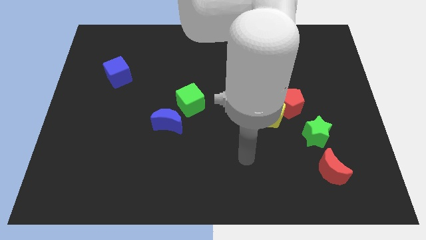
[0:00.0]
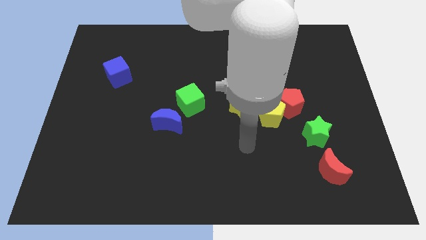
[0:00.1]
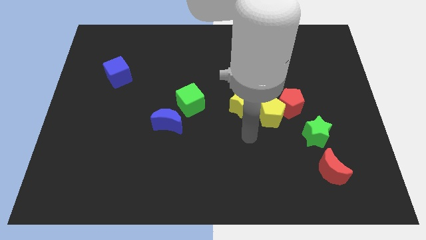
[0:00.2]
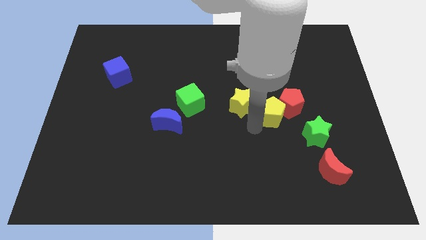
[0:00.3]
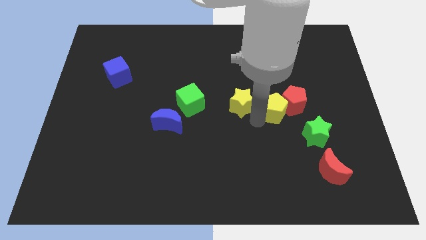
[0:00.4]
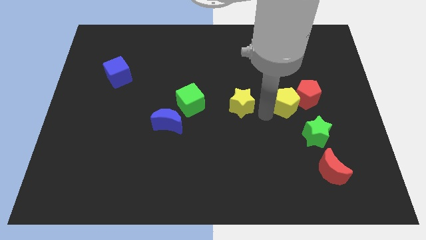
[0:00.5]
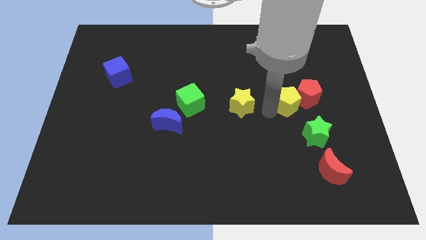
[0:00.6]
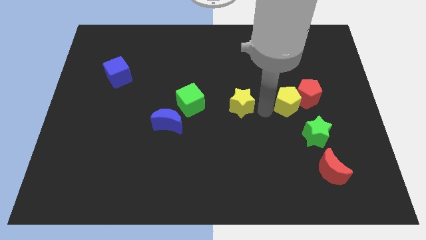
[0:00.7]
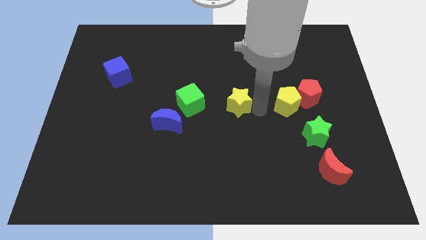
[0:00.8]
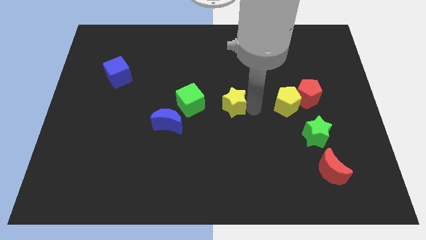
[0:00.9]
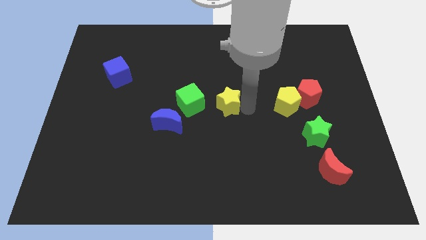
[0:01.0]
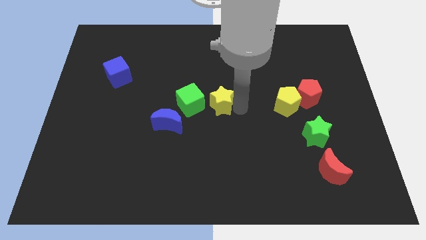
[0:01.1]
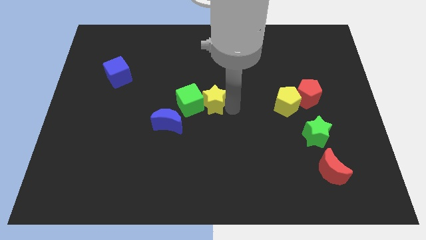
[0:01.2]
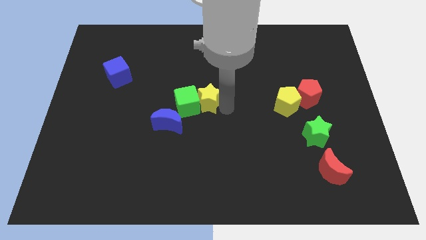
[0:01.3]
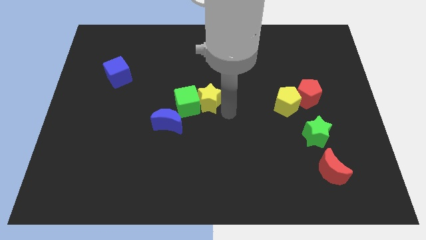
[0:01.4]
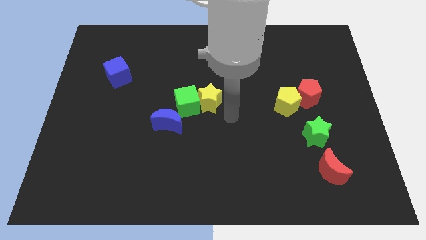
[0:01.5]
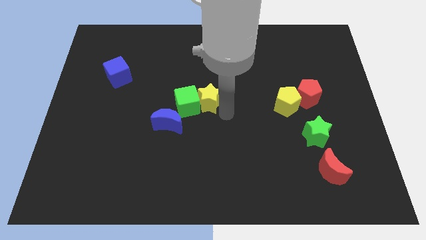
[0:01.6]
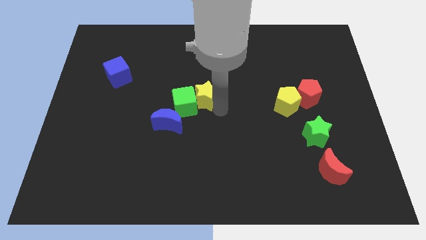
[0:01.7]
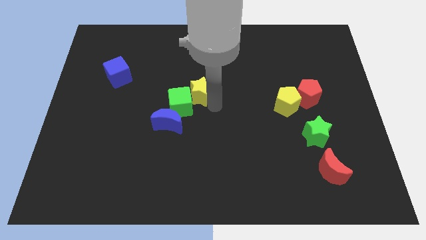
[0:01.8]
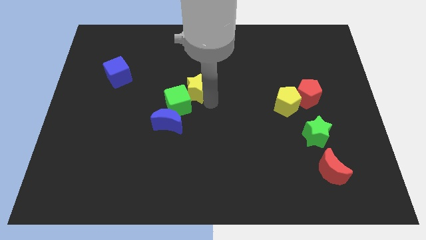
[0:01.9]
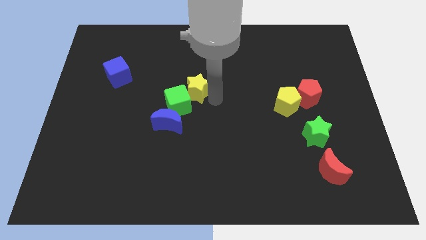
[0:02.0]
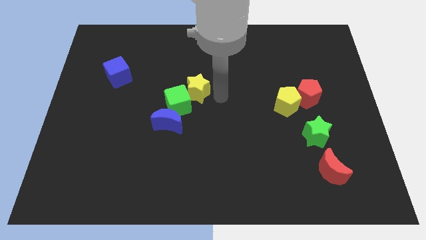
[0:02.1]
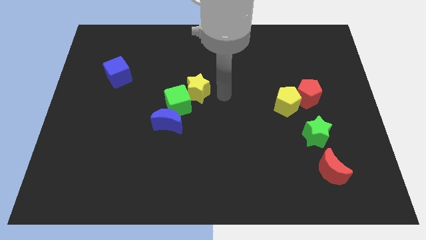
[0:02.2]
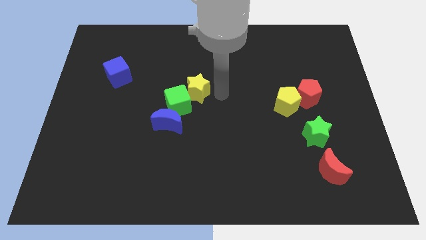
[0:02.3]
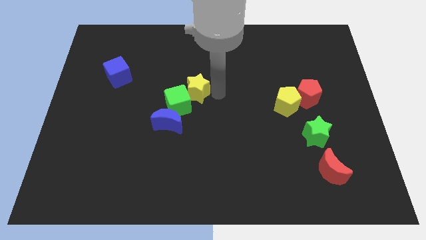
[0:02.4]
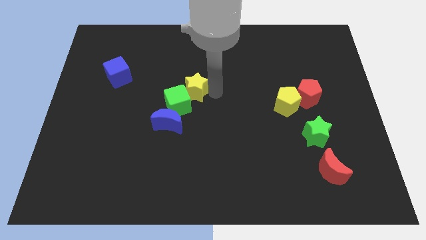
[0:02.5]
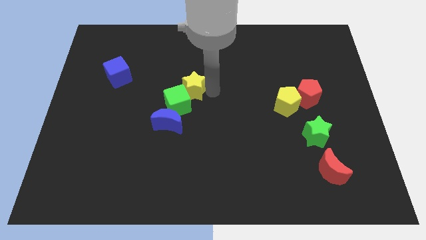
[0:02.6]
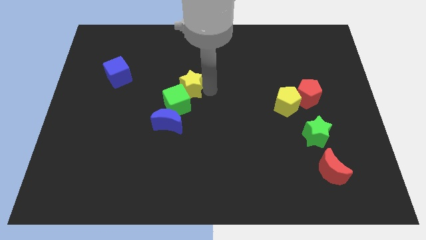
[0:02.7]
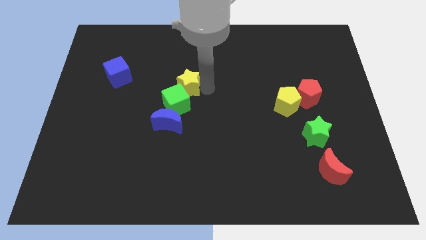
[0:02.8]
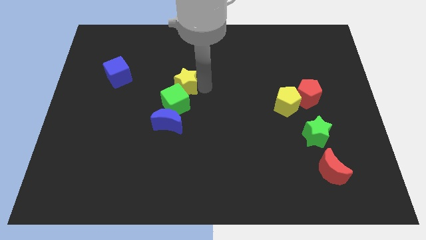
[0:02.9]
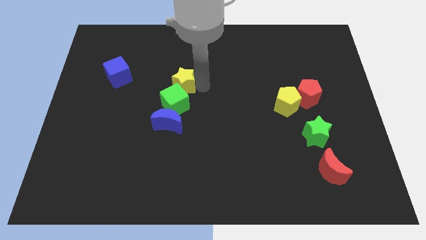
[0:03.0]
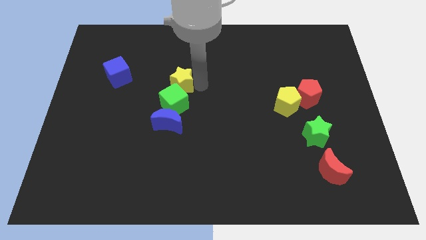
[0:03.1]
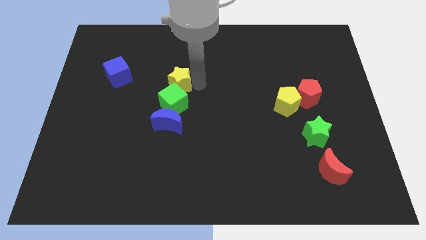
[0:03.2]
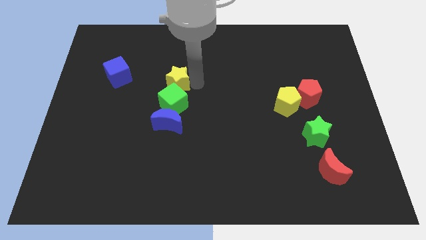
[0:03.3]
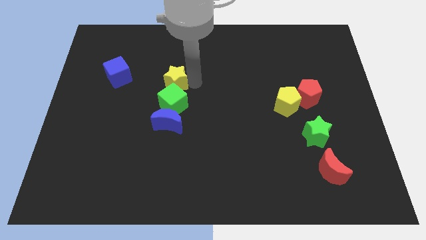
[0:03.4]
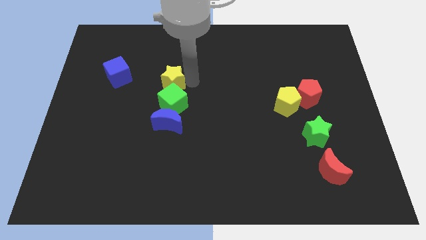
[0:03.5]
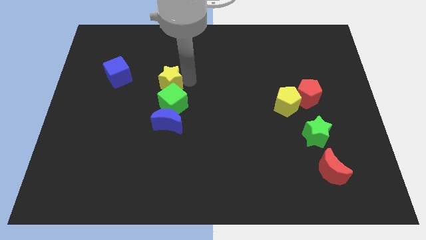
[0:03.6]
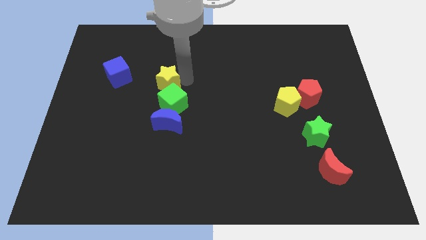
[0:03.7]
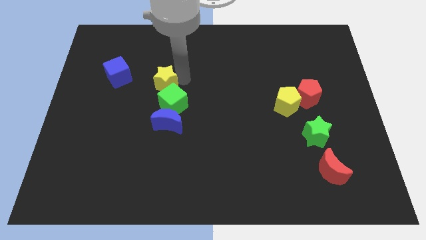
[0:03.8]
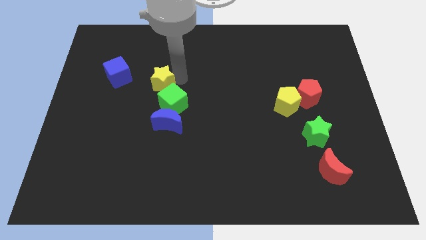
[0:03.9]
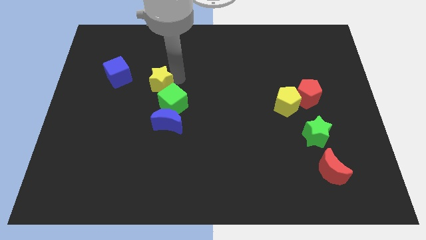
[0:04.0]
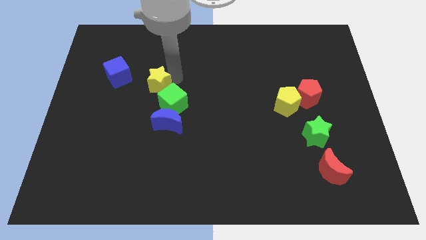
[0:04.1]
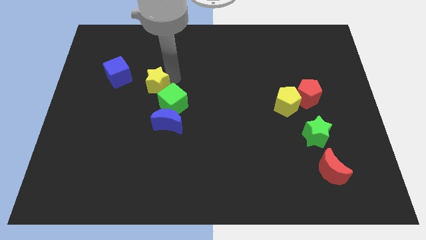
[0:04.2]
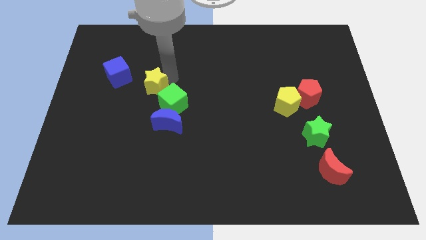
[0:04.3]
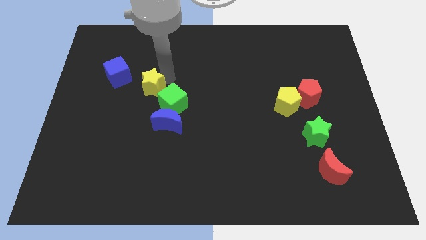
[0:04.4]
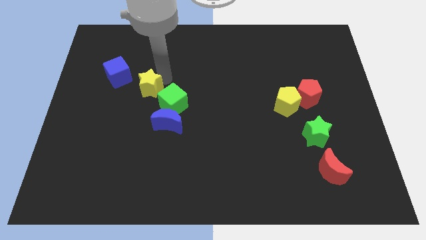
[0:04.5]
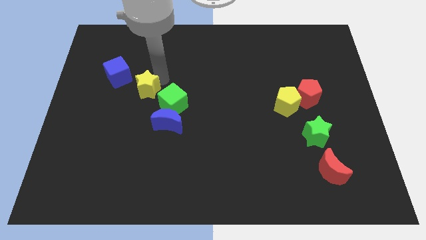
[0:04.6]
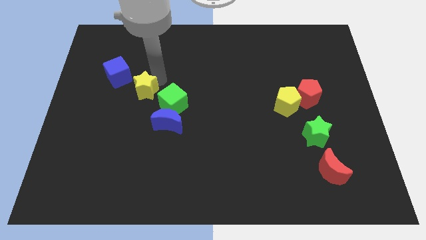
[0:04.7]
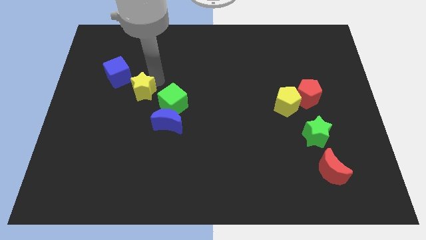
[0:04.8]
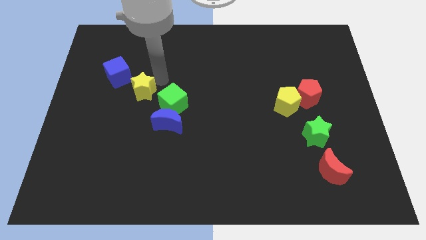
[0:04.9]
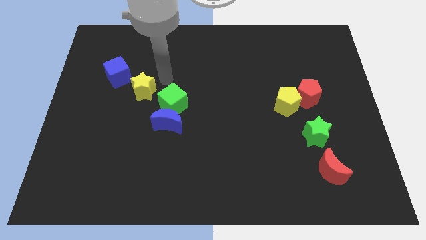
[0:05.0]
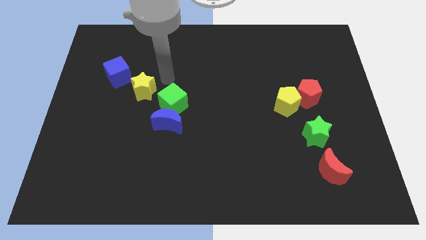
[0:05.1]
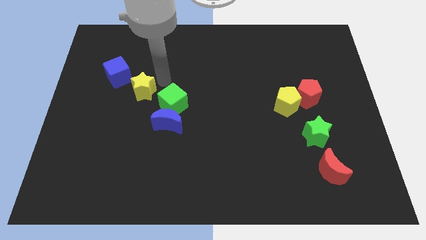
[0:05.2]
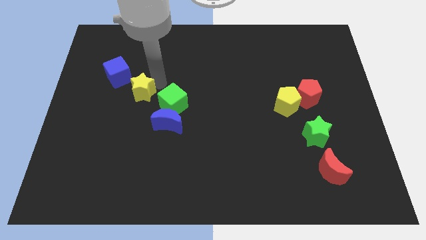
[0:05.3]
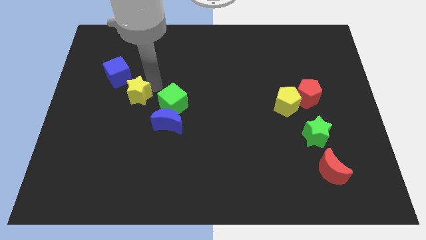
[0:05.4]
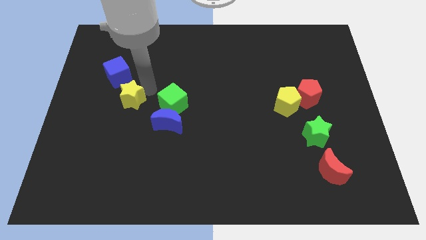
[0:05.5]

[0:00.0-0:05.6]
slide the yellow star below the blue cube

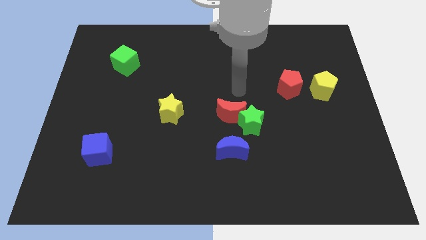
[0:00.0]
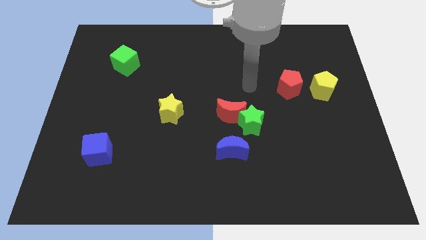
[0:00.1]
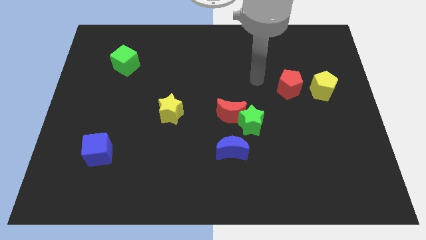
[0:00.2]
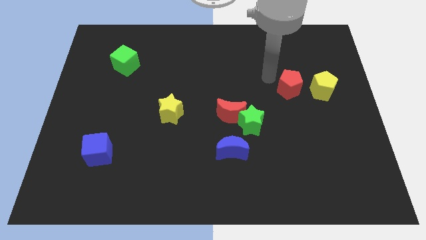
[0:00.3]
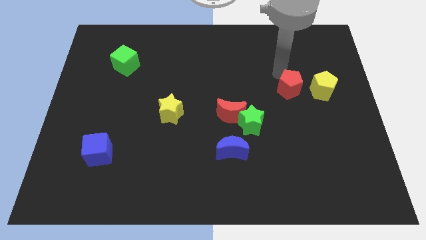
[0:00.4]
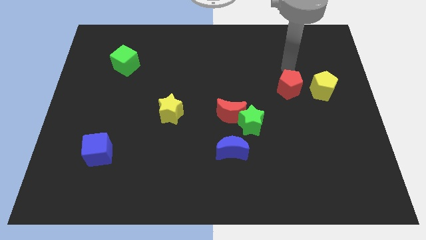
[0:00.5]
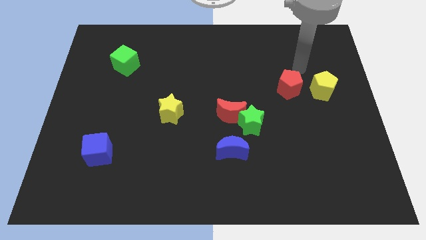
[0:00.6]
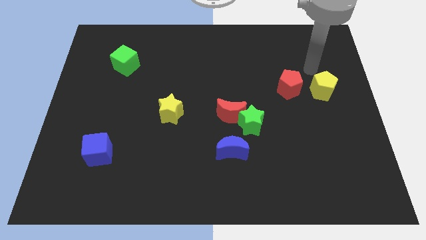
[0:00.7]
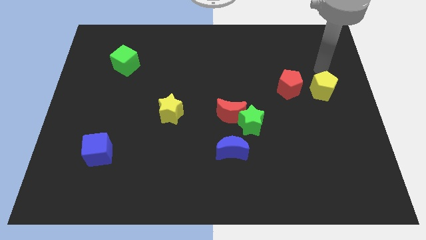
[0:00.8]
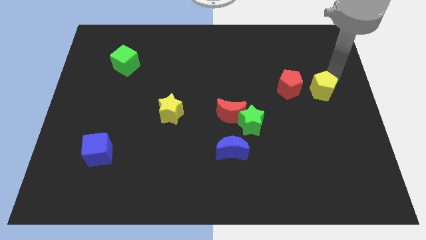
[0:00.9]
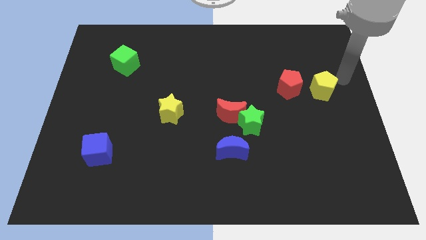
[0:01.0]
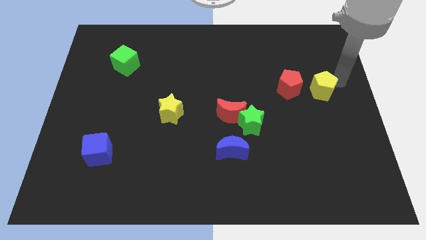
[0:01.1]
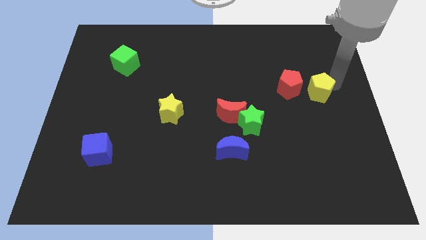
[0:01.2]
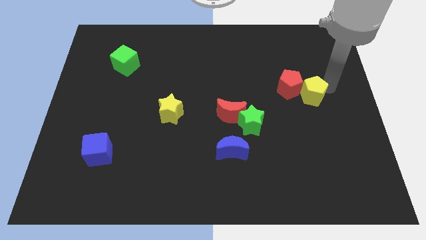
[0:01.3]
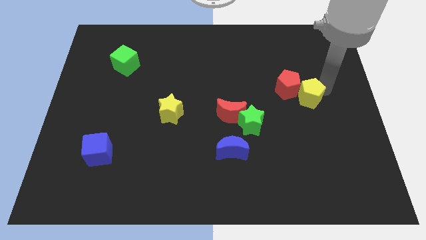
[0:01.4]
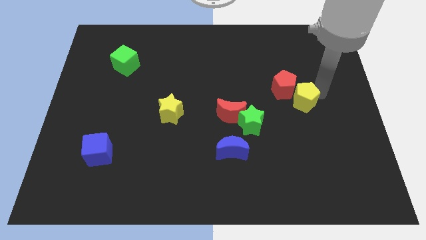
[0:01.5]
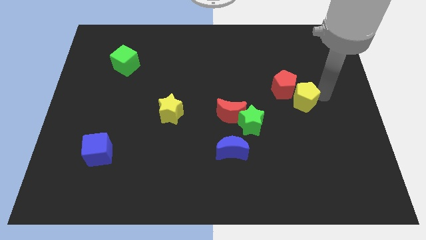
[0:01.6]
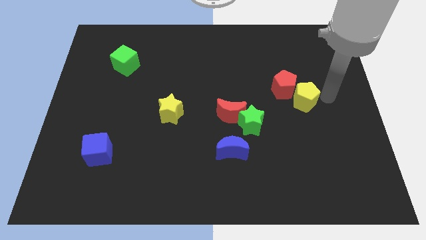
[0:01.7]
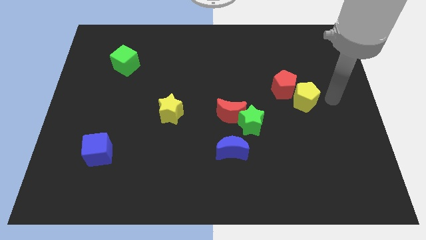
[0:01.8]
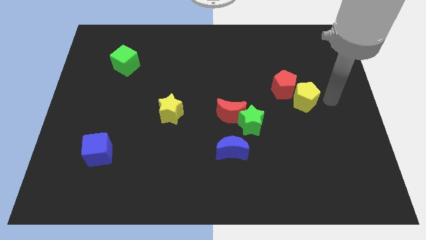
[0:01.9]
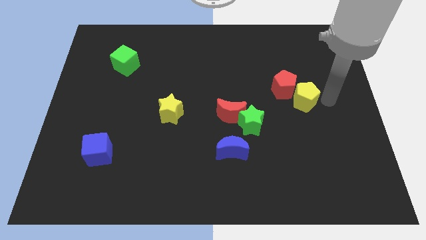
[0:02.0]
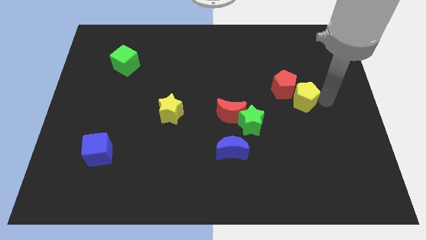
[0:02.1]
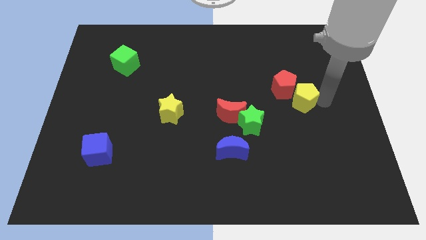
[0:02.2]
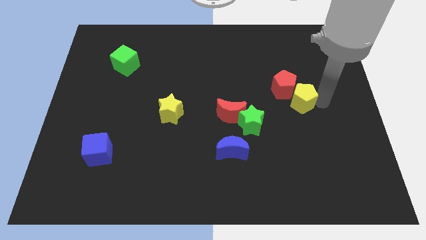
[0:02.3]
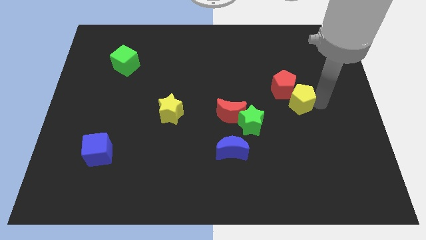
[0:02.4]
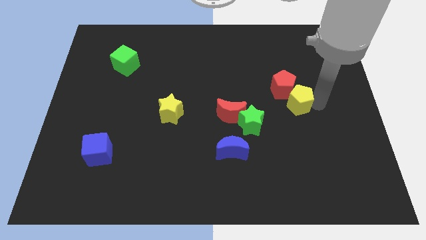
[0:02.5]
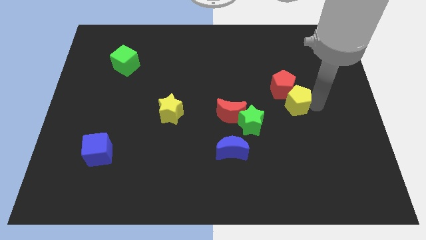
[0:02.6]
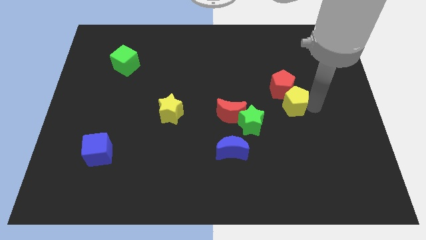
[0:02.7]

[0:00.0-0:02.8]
put the yellow pentagon to the right side of the red moon
